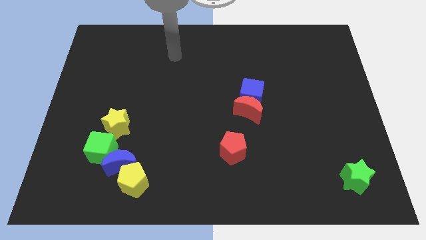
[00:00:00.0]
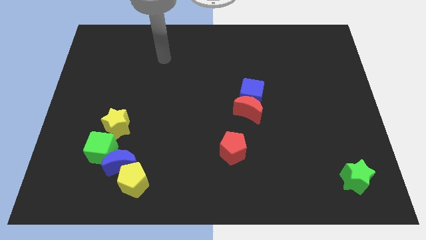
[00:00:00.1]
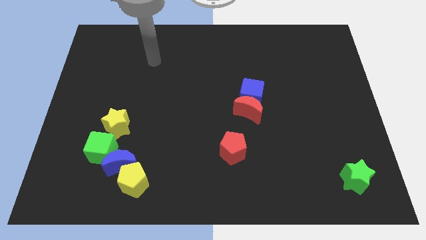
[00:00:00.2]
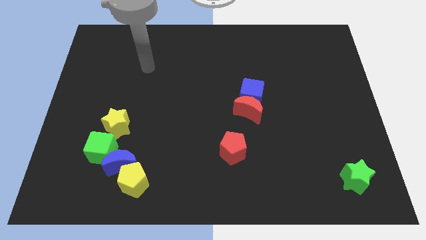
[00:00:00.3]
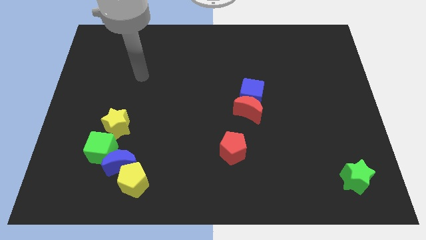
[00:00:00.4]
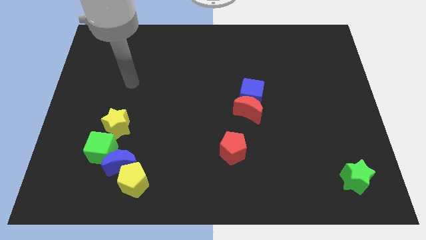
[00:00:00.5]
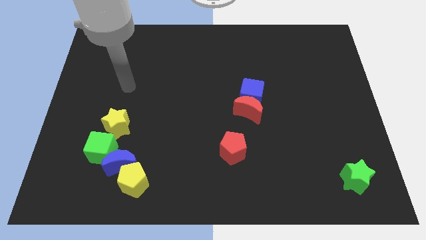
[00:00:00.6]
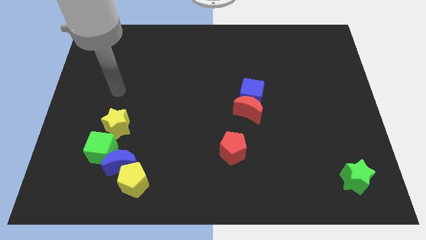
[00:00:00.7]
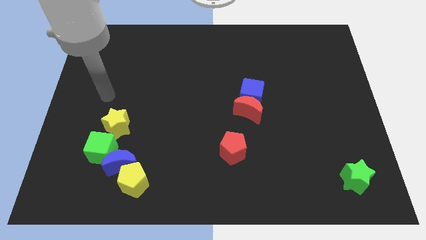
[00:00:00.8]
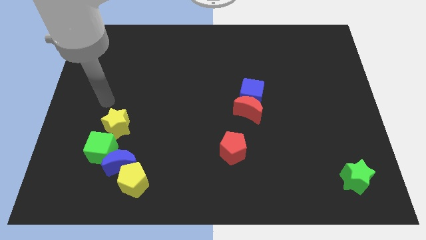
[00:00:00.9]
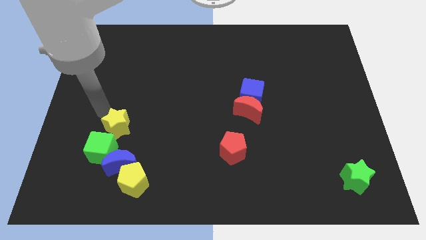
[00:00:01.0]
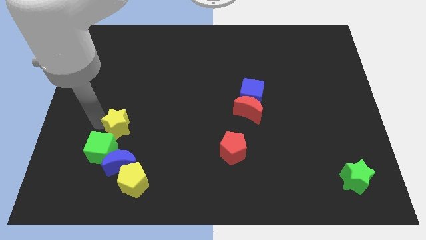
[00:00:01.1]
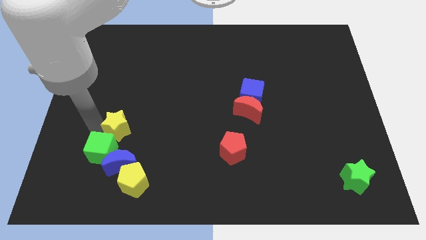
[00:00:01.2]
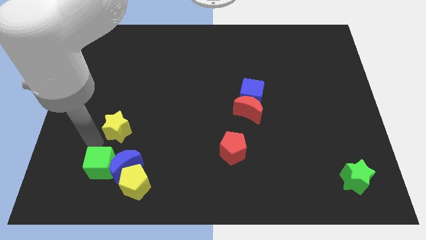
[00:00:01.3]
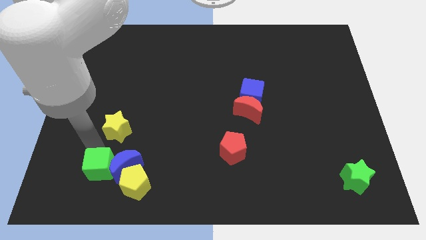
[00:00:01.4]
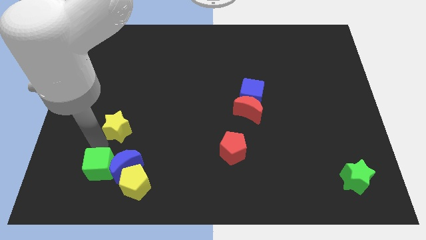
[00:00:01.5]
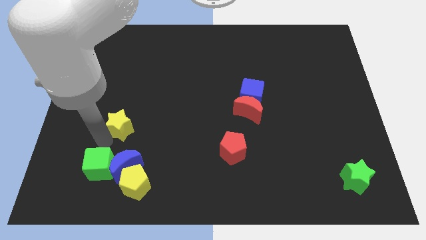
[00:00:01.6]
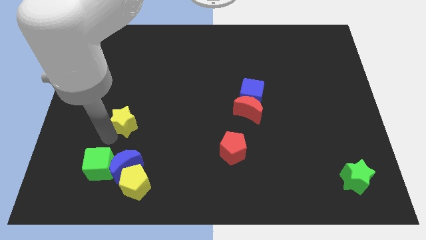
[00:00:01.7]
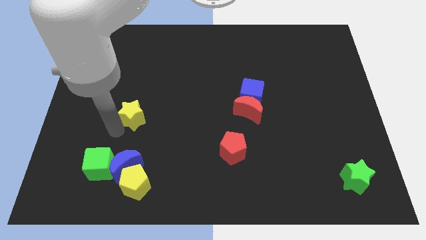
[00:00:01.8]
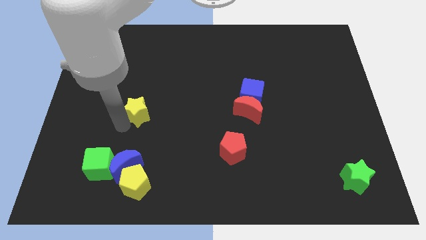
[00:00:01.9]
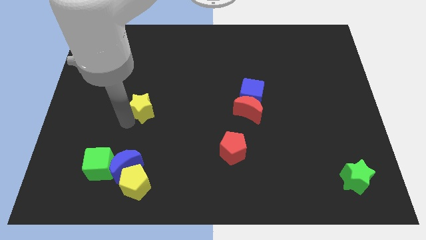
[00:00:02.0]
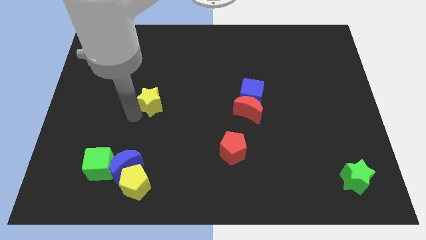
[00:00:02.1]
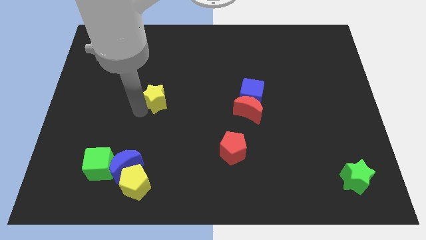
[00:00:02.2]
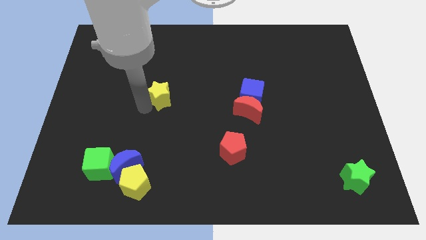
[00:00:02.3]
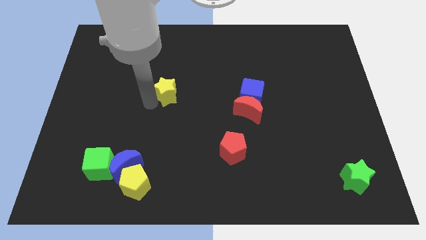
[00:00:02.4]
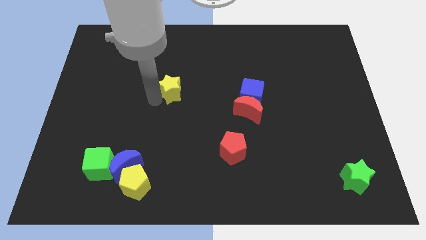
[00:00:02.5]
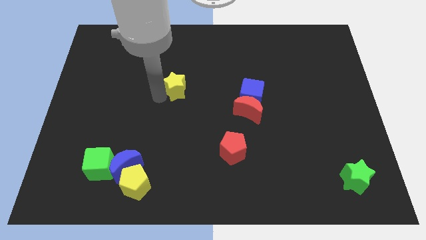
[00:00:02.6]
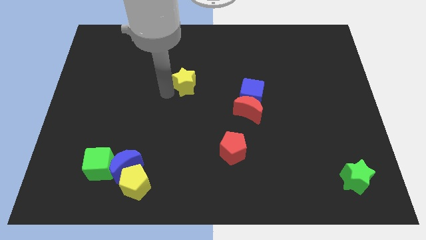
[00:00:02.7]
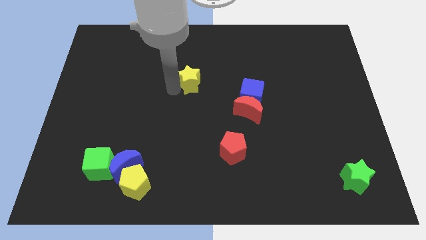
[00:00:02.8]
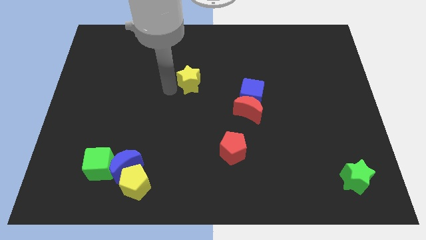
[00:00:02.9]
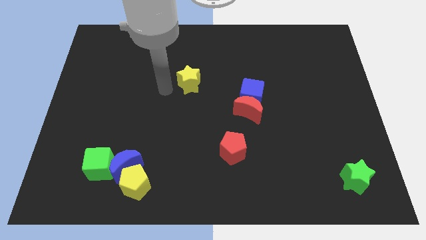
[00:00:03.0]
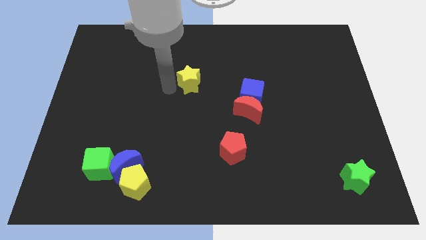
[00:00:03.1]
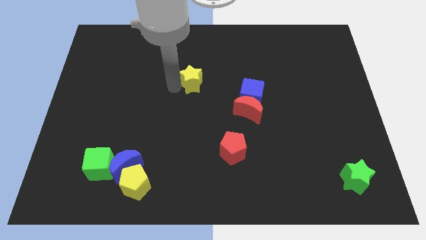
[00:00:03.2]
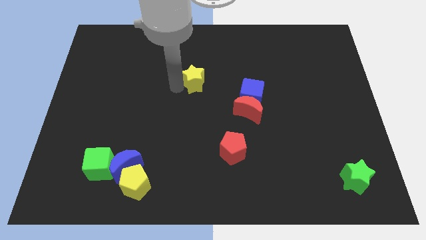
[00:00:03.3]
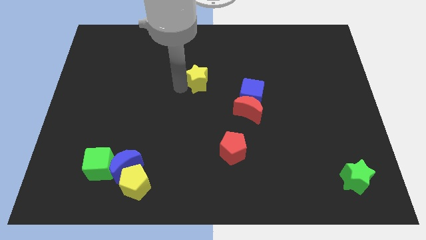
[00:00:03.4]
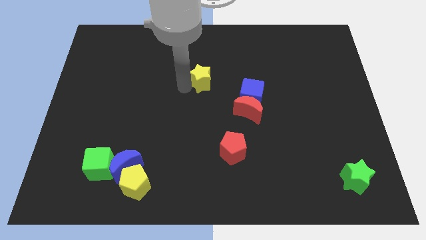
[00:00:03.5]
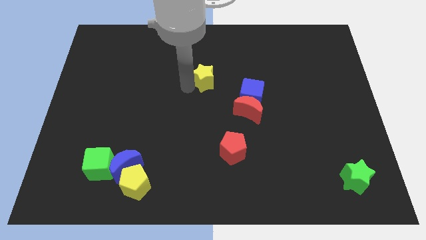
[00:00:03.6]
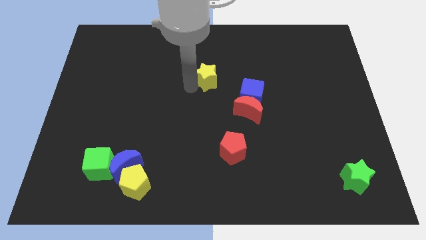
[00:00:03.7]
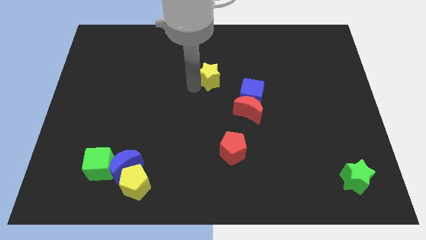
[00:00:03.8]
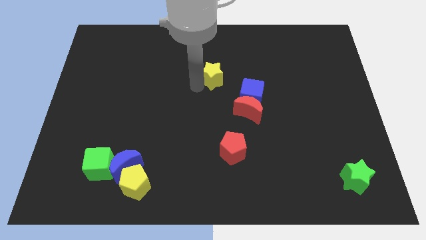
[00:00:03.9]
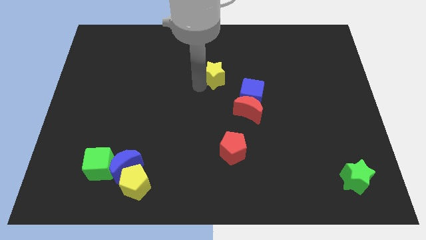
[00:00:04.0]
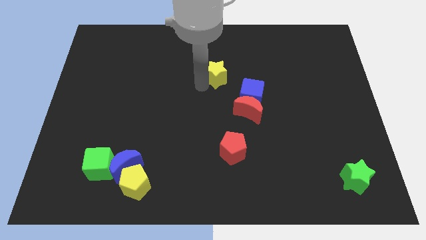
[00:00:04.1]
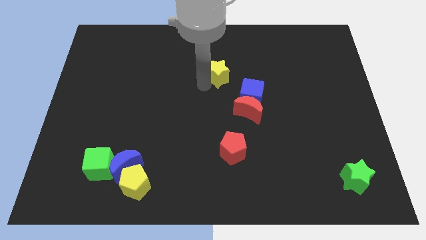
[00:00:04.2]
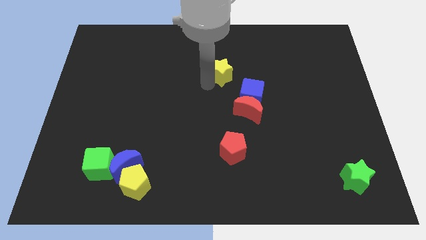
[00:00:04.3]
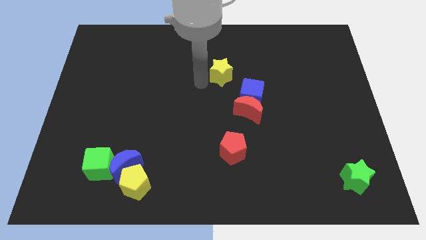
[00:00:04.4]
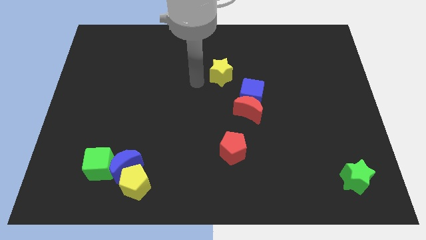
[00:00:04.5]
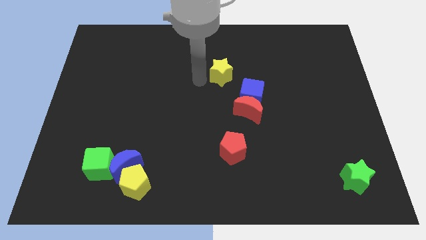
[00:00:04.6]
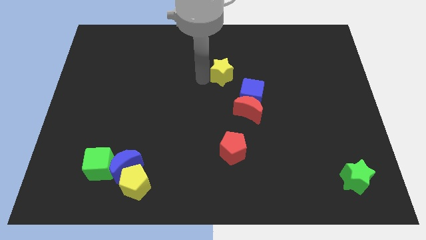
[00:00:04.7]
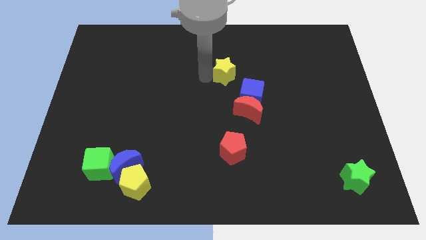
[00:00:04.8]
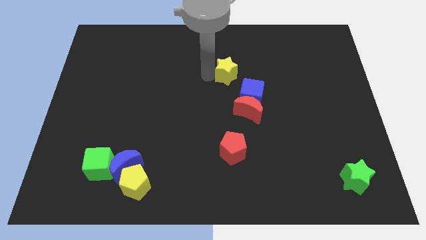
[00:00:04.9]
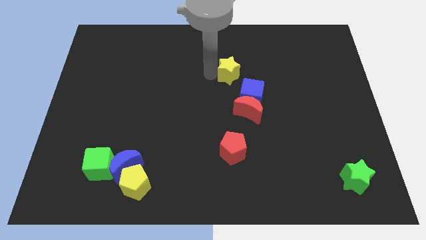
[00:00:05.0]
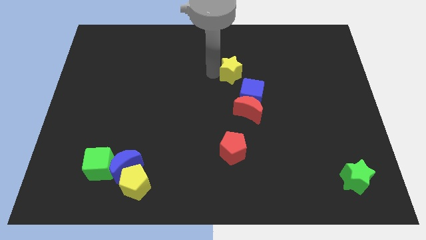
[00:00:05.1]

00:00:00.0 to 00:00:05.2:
put the yellow star to the top side of the blue cube

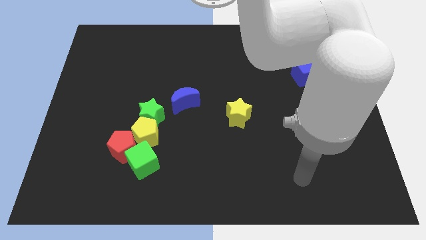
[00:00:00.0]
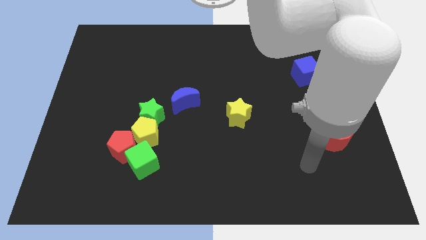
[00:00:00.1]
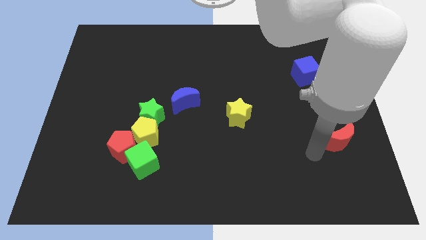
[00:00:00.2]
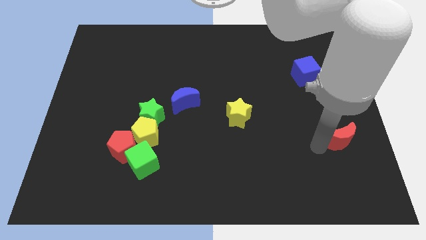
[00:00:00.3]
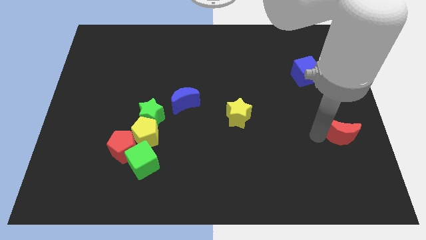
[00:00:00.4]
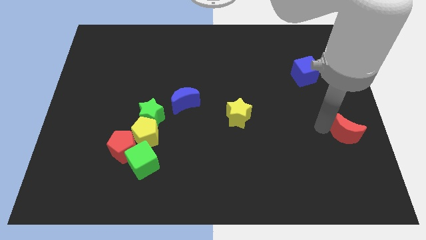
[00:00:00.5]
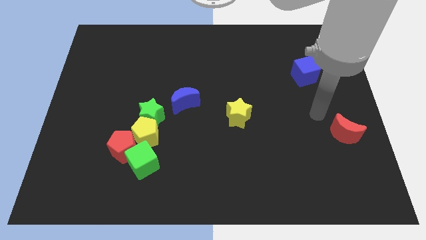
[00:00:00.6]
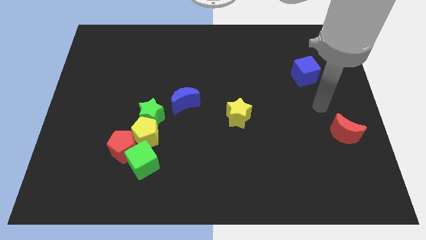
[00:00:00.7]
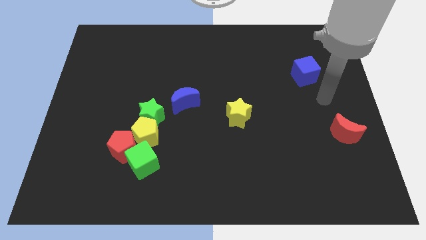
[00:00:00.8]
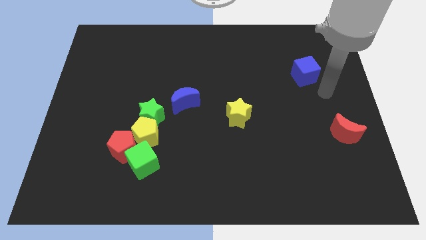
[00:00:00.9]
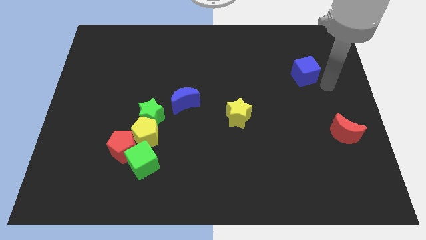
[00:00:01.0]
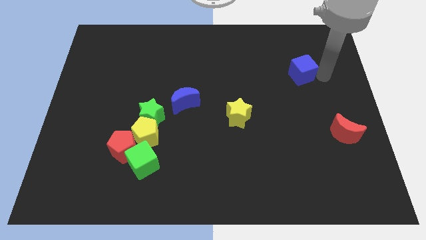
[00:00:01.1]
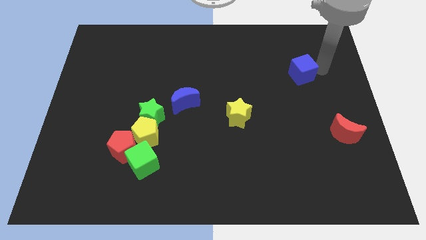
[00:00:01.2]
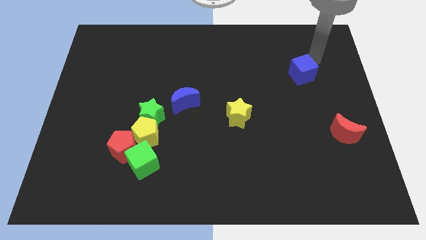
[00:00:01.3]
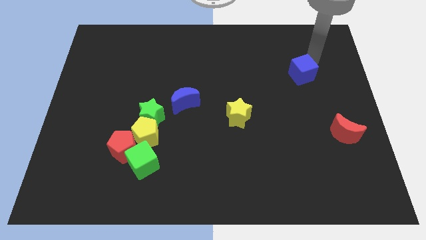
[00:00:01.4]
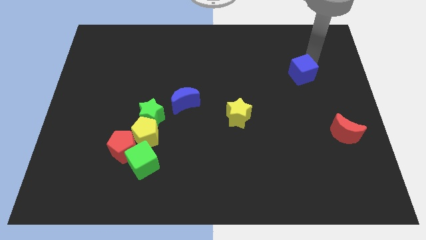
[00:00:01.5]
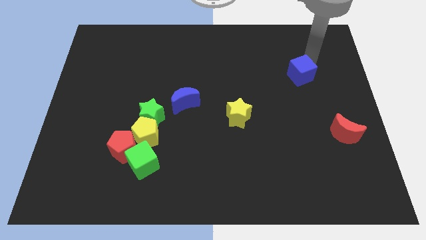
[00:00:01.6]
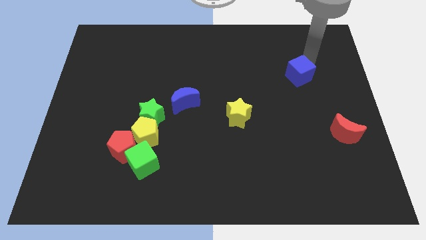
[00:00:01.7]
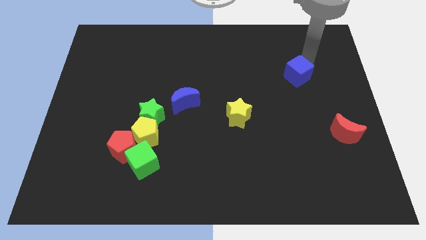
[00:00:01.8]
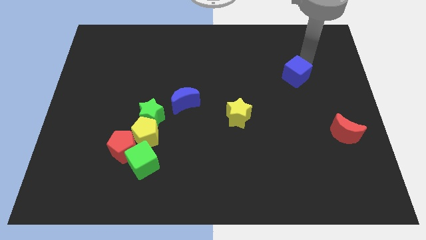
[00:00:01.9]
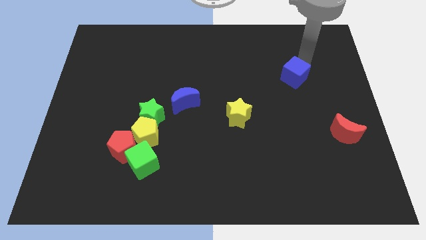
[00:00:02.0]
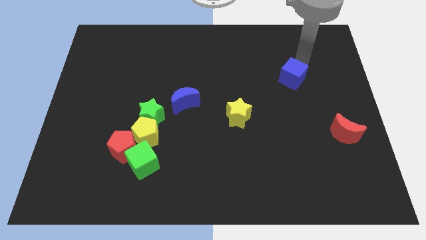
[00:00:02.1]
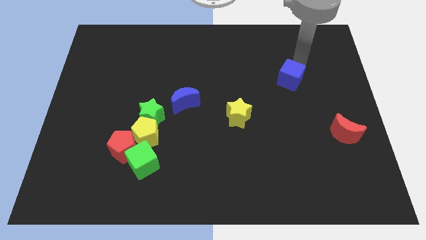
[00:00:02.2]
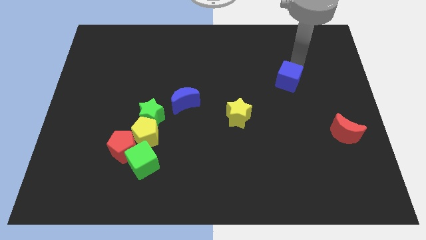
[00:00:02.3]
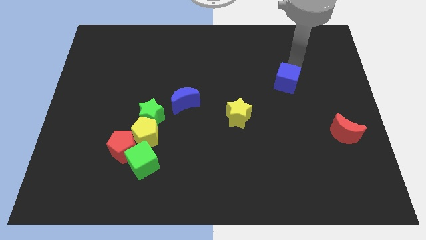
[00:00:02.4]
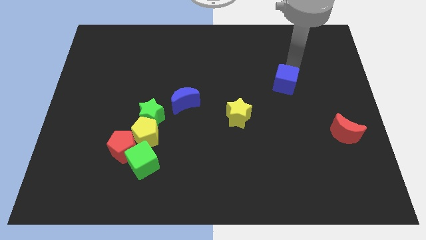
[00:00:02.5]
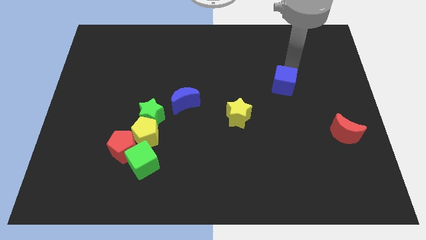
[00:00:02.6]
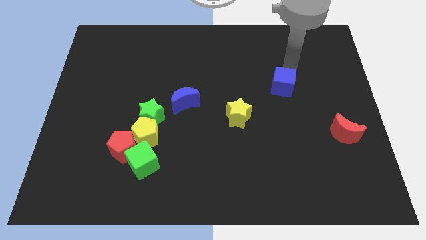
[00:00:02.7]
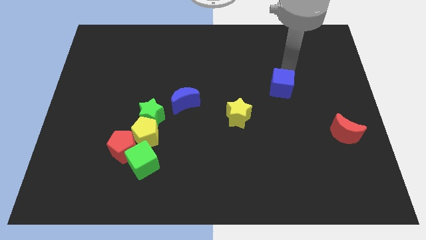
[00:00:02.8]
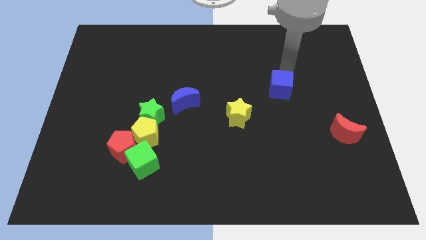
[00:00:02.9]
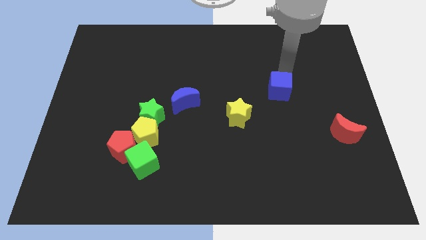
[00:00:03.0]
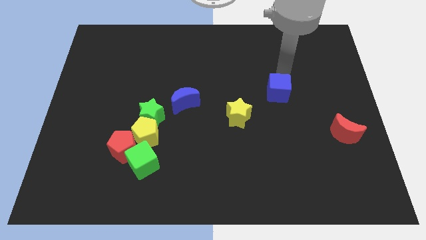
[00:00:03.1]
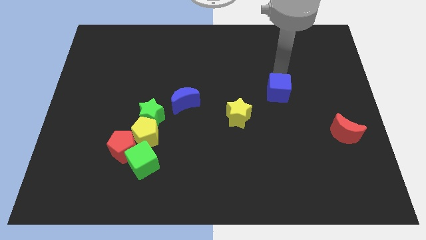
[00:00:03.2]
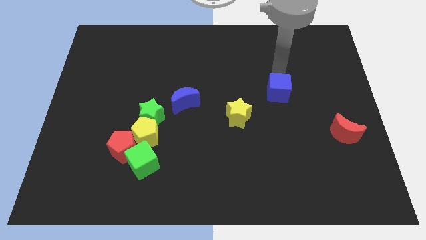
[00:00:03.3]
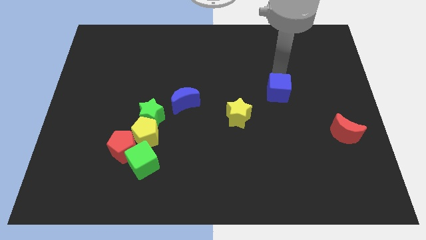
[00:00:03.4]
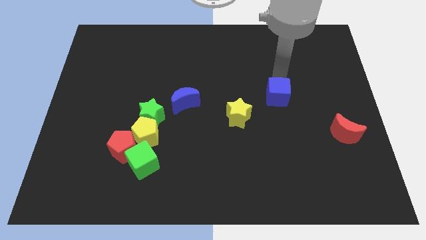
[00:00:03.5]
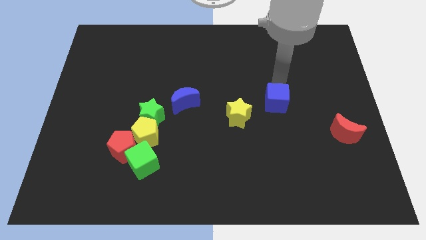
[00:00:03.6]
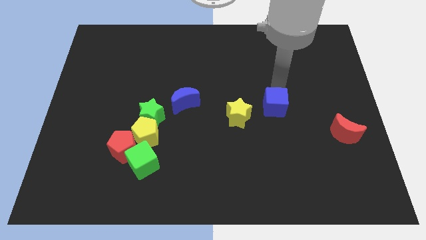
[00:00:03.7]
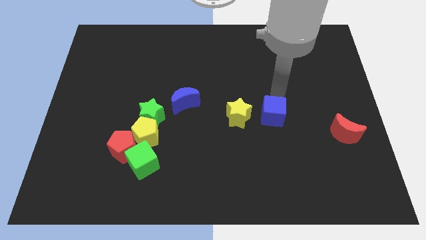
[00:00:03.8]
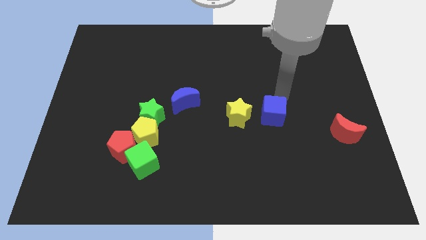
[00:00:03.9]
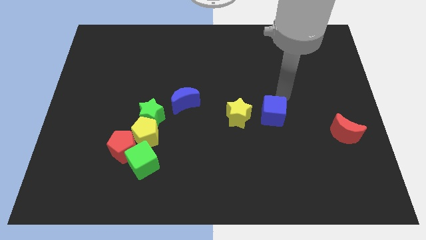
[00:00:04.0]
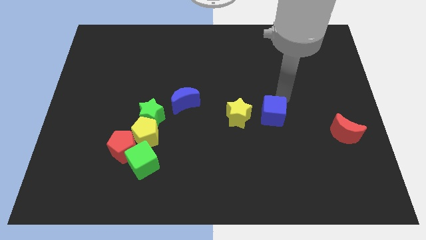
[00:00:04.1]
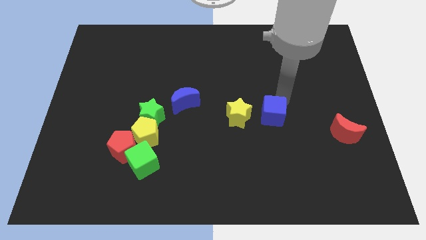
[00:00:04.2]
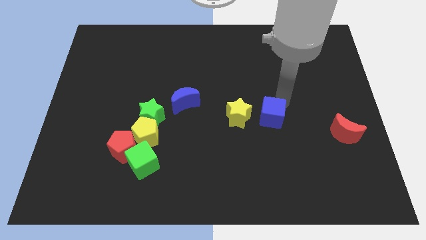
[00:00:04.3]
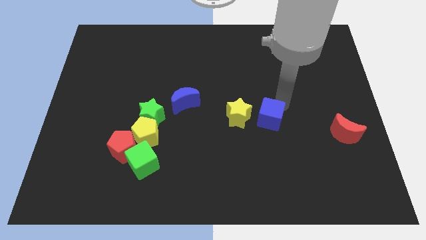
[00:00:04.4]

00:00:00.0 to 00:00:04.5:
move the blue cube diagonally down and to the right of the yellow star
